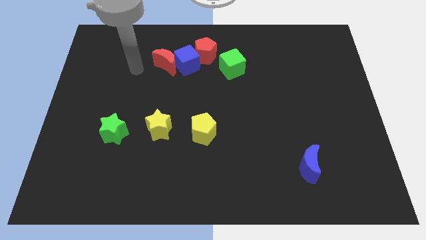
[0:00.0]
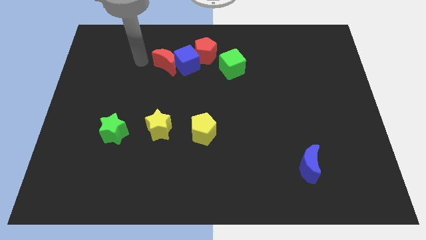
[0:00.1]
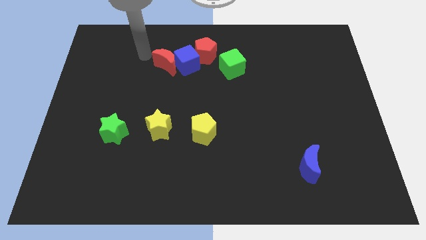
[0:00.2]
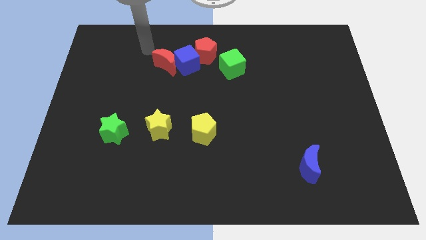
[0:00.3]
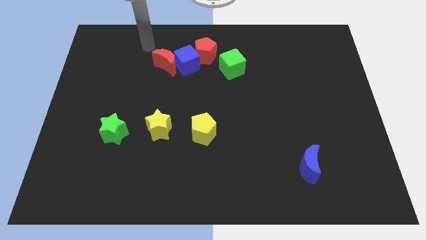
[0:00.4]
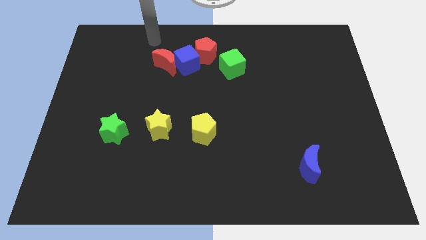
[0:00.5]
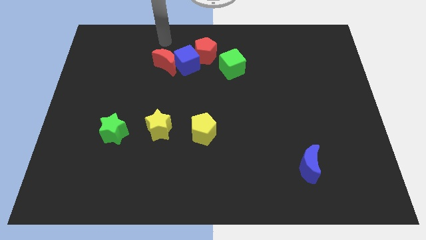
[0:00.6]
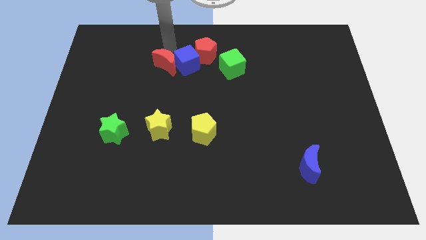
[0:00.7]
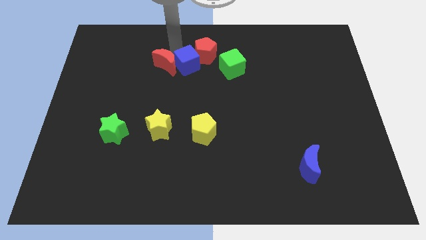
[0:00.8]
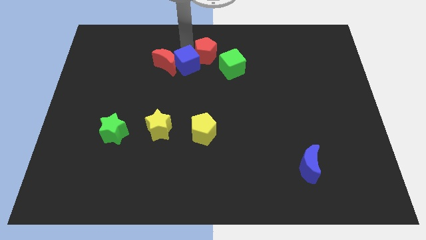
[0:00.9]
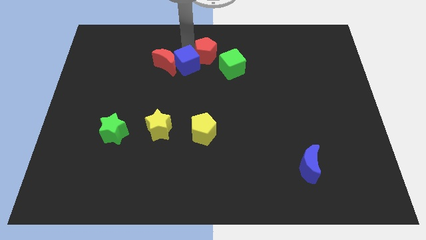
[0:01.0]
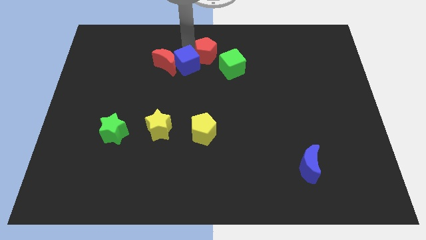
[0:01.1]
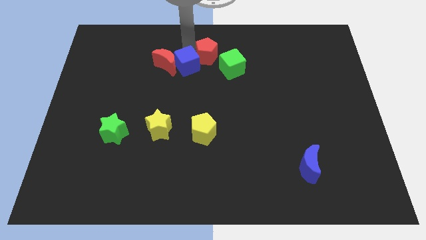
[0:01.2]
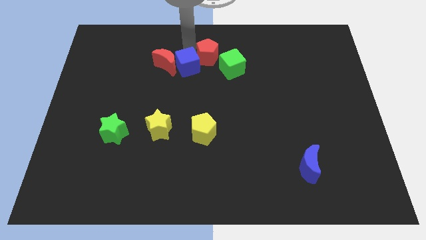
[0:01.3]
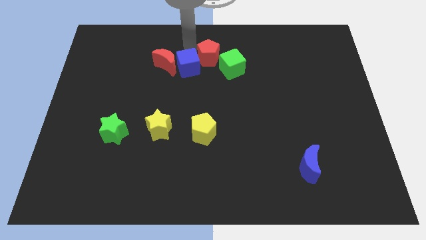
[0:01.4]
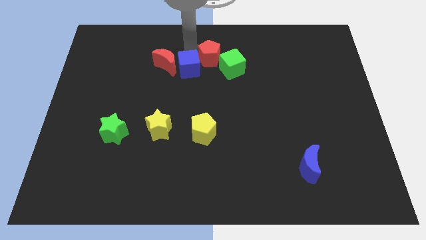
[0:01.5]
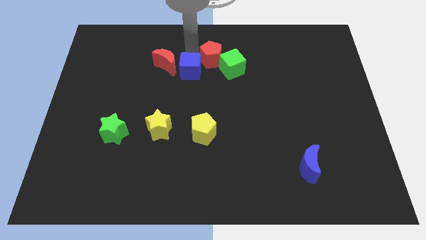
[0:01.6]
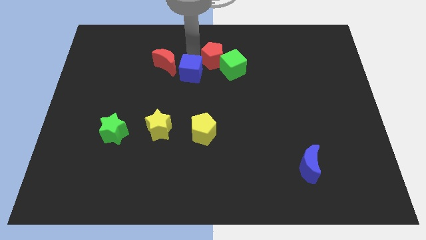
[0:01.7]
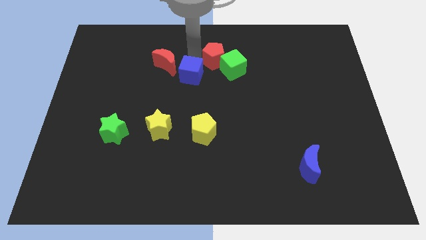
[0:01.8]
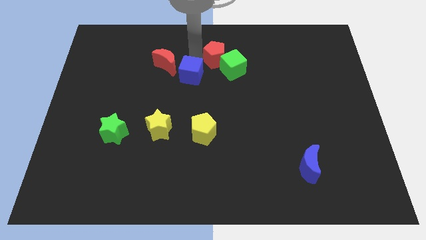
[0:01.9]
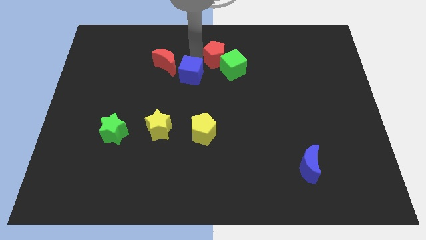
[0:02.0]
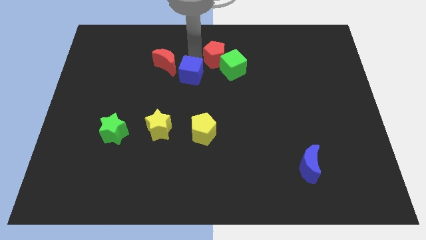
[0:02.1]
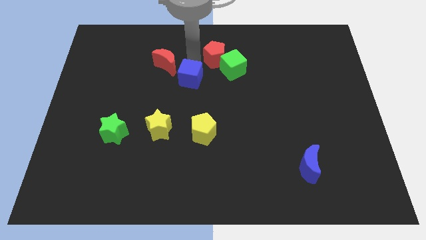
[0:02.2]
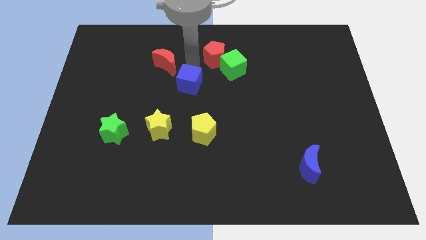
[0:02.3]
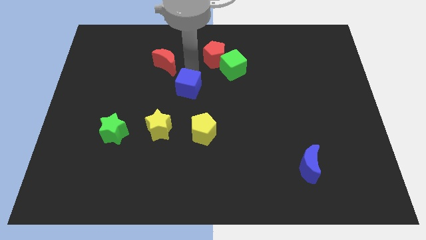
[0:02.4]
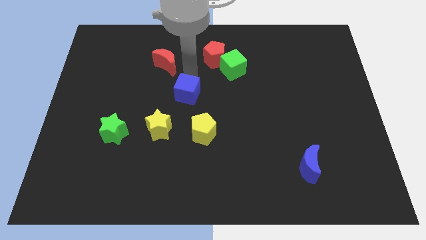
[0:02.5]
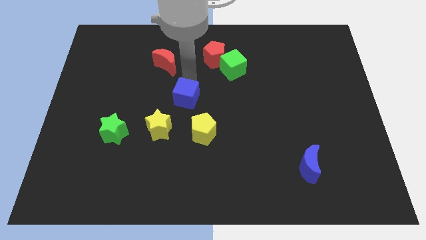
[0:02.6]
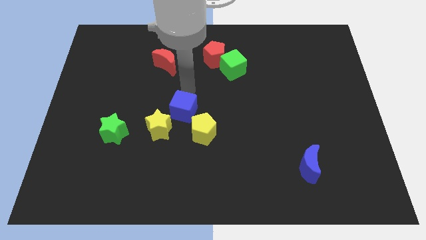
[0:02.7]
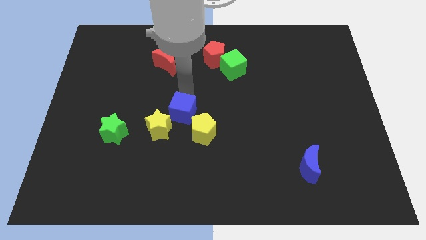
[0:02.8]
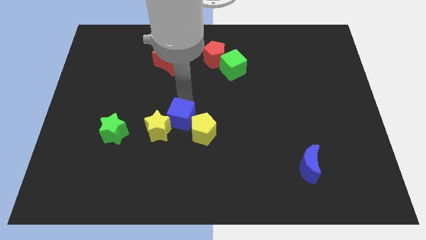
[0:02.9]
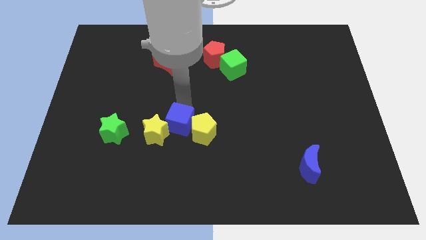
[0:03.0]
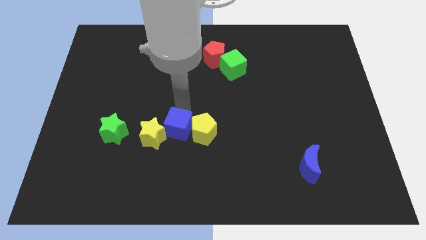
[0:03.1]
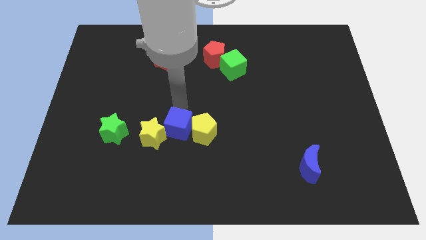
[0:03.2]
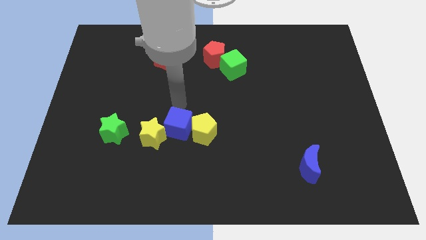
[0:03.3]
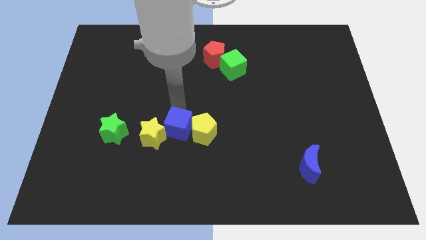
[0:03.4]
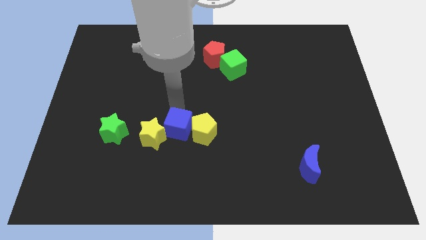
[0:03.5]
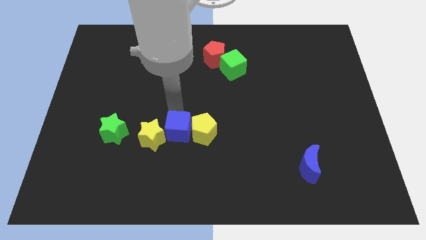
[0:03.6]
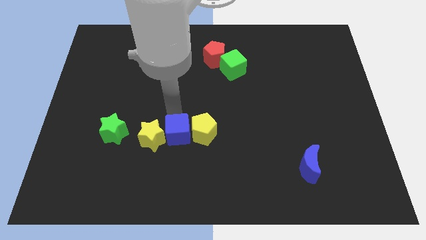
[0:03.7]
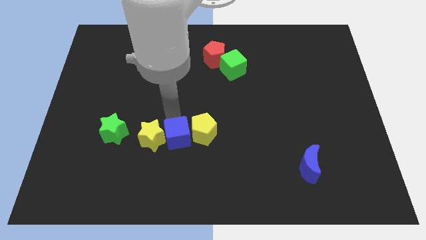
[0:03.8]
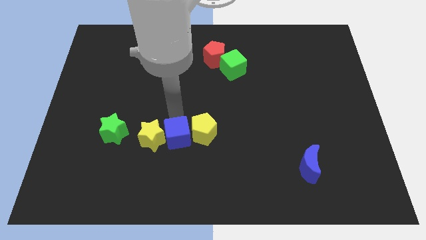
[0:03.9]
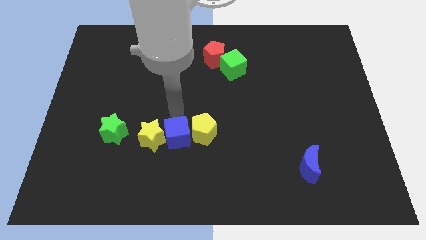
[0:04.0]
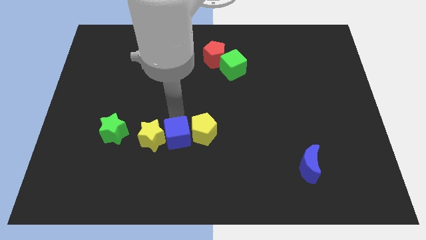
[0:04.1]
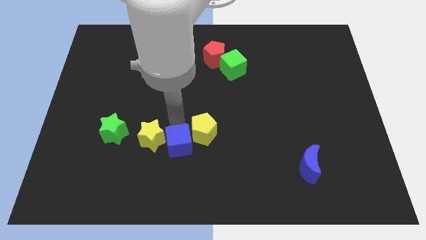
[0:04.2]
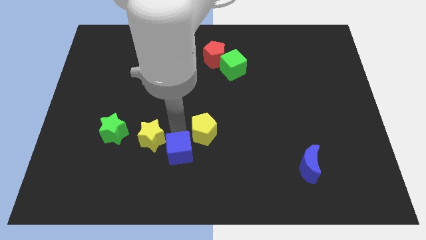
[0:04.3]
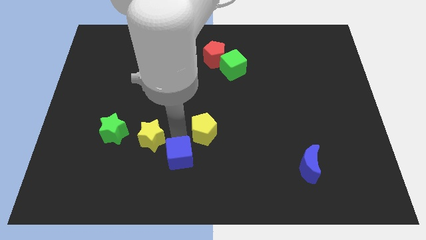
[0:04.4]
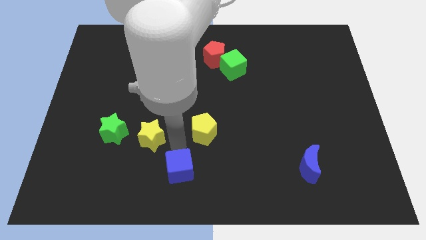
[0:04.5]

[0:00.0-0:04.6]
push the blue cube to the bottom side

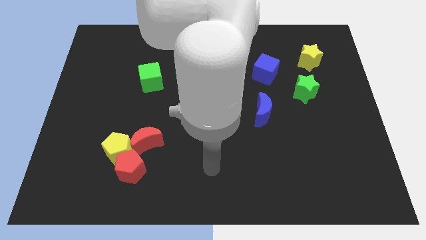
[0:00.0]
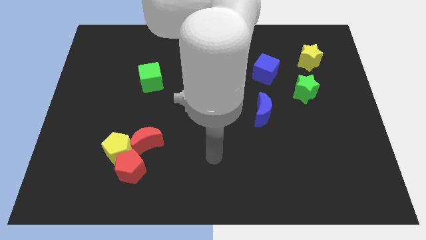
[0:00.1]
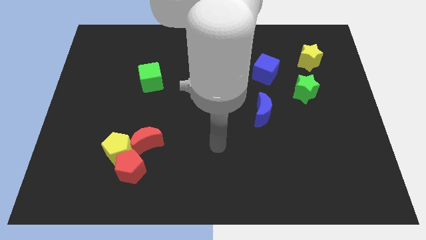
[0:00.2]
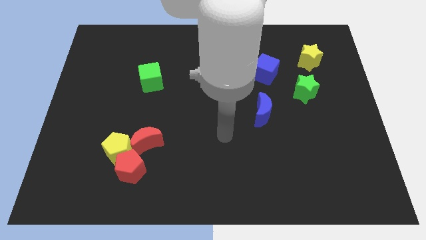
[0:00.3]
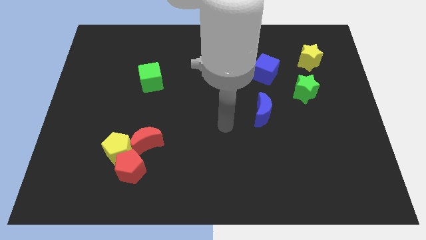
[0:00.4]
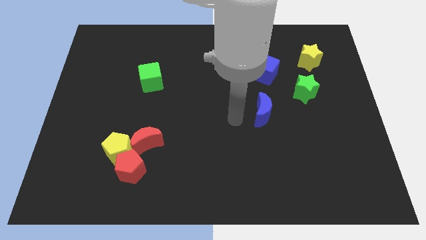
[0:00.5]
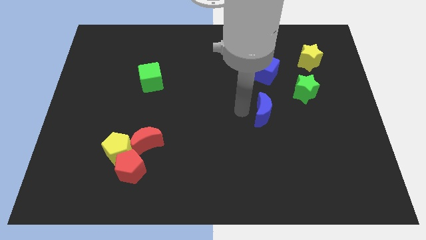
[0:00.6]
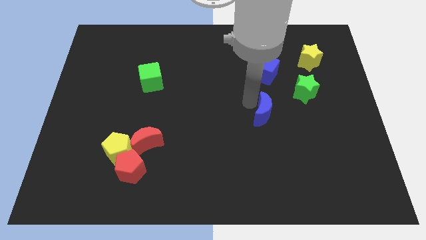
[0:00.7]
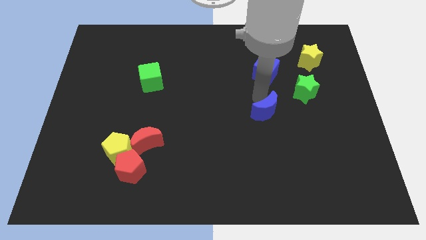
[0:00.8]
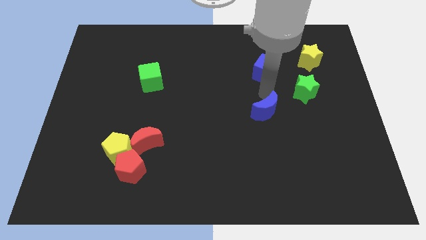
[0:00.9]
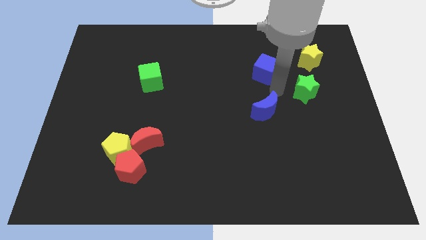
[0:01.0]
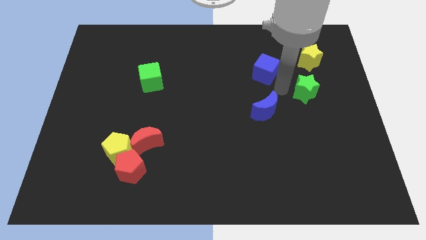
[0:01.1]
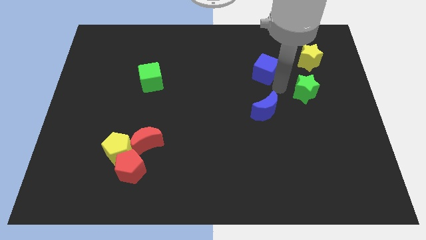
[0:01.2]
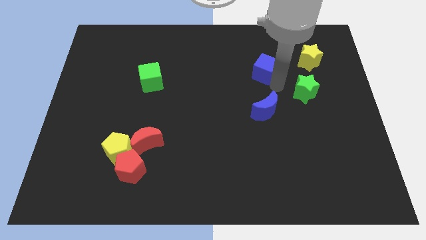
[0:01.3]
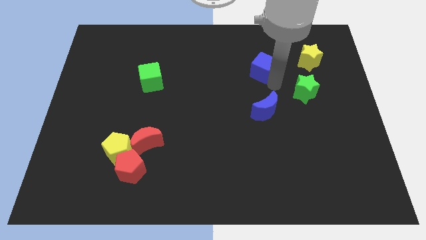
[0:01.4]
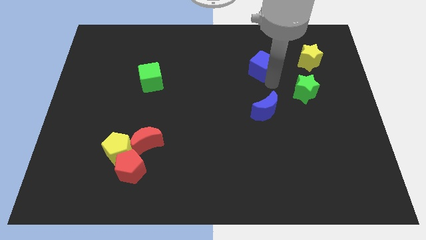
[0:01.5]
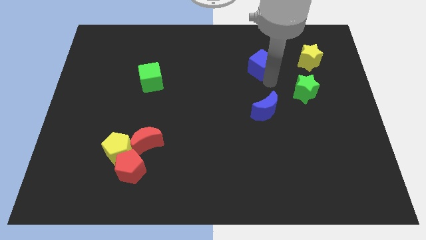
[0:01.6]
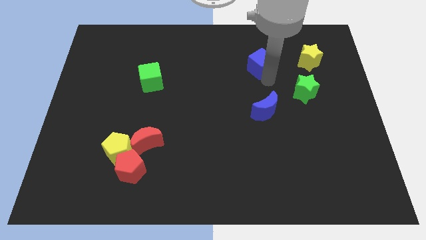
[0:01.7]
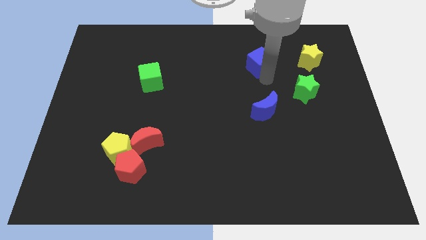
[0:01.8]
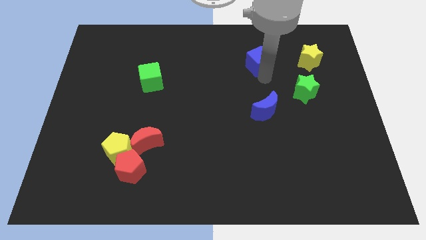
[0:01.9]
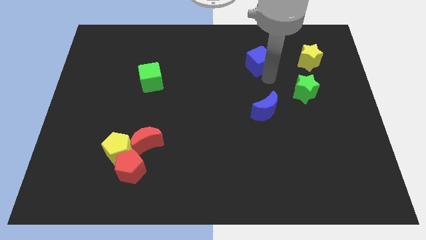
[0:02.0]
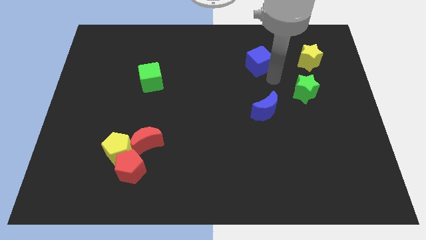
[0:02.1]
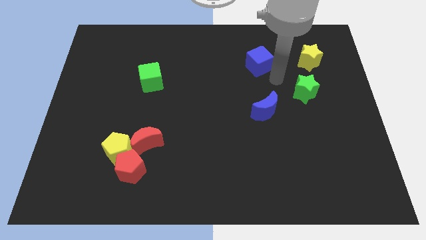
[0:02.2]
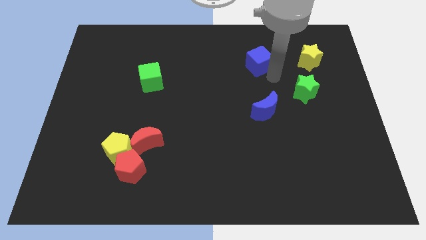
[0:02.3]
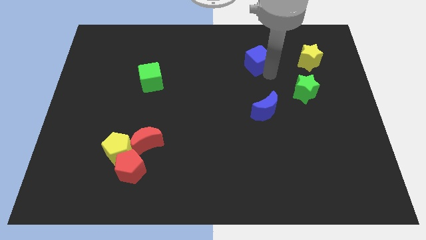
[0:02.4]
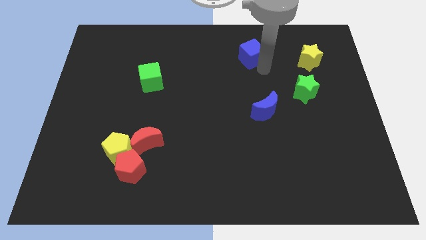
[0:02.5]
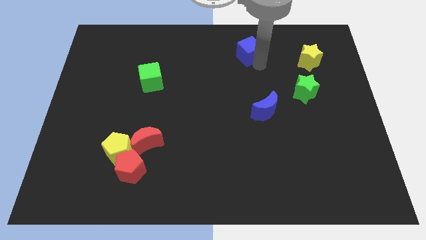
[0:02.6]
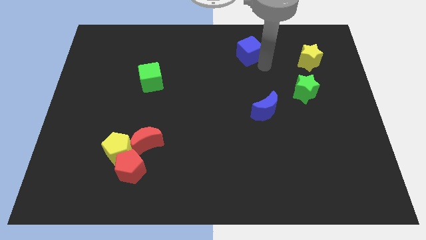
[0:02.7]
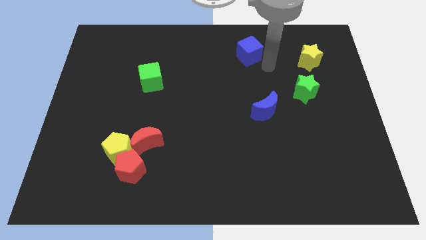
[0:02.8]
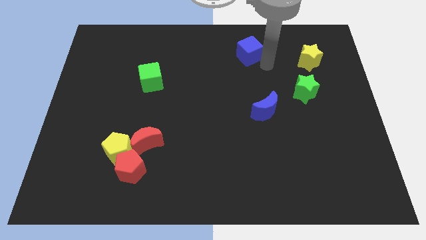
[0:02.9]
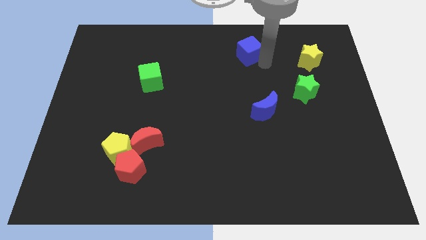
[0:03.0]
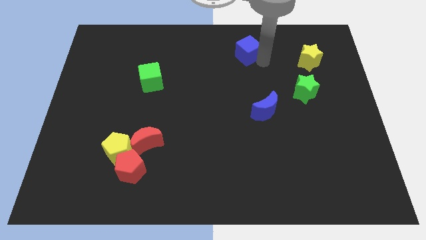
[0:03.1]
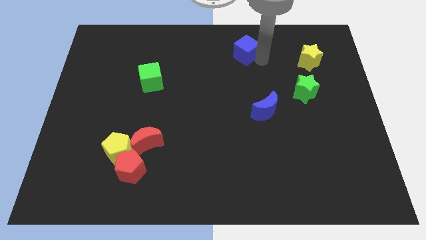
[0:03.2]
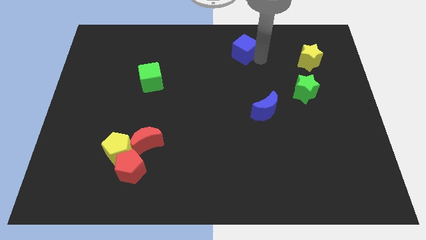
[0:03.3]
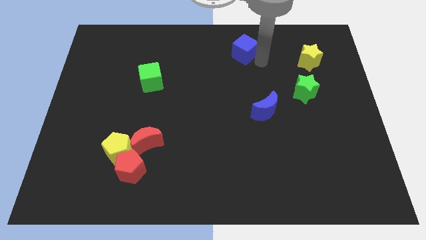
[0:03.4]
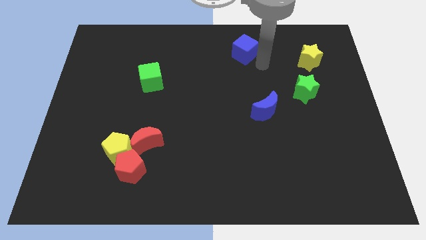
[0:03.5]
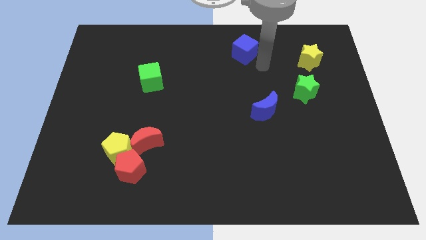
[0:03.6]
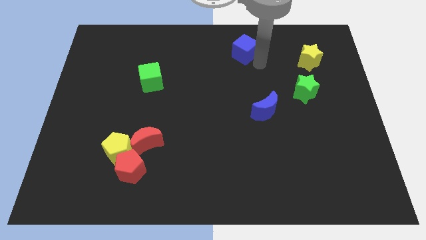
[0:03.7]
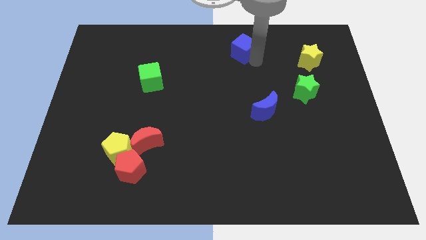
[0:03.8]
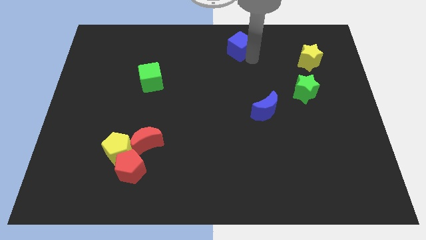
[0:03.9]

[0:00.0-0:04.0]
push the blue cube to the top
